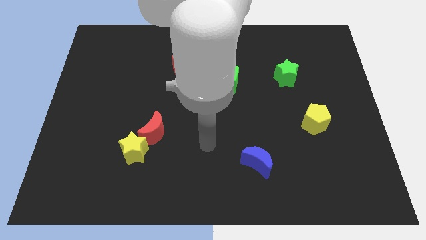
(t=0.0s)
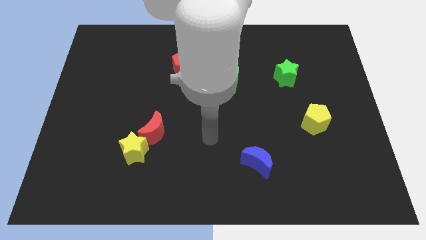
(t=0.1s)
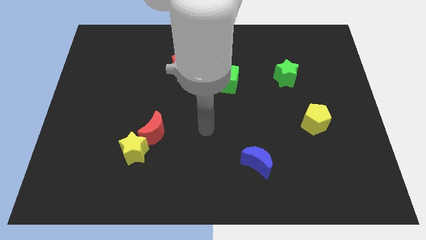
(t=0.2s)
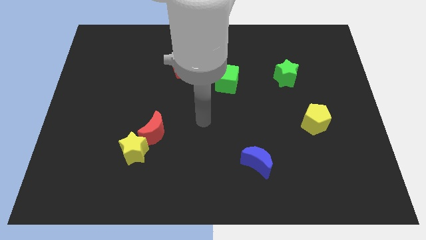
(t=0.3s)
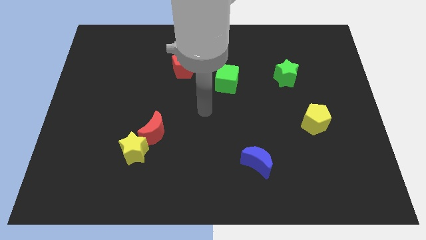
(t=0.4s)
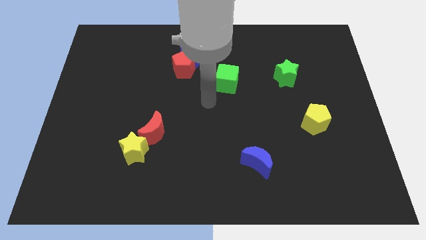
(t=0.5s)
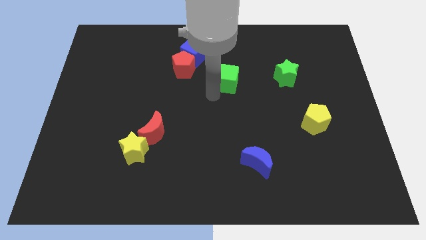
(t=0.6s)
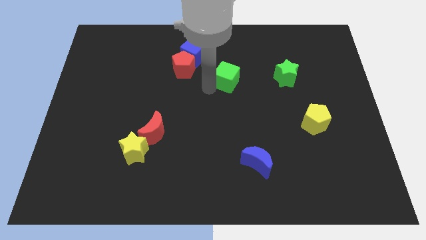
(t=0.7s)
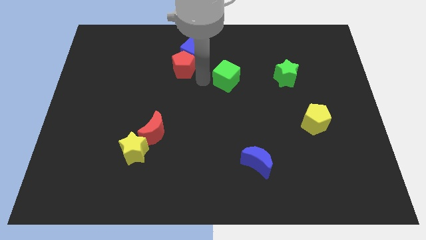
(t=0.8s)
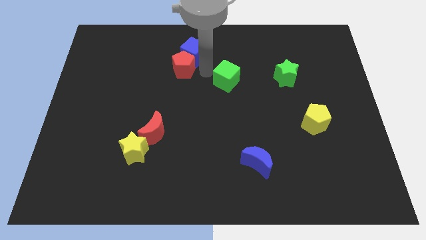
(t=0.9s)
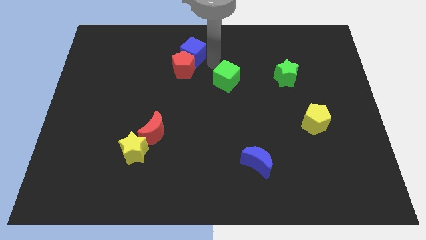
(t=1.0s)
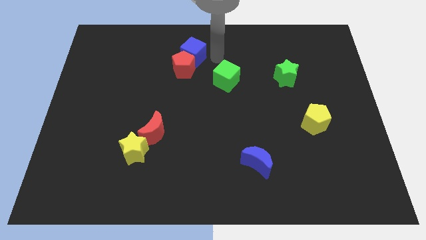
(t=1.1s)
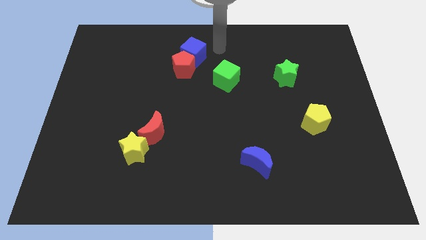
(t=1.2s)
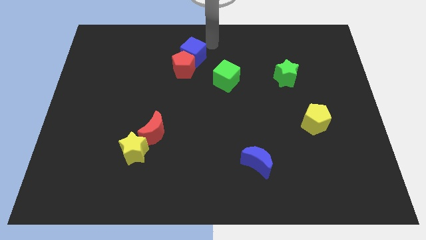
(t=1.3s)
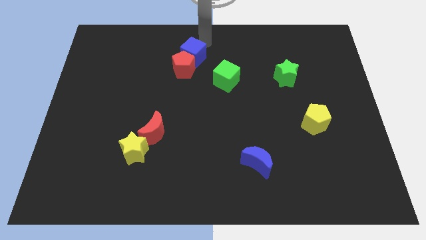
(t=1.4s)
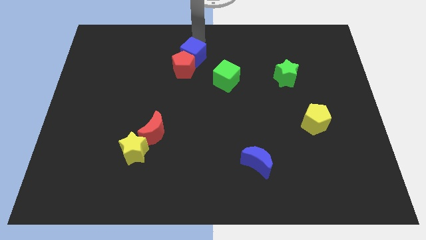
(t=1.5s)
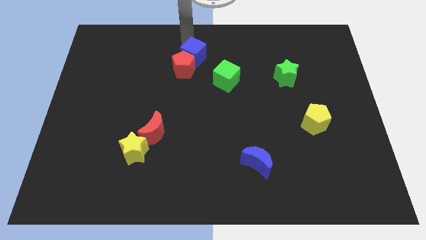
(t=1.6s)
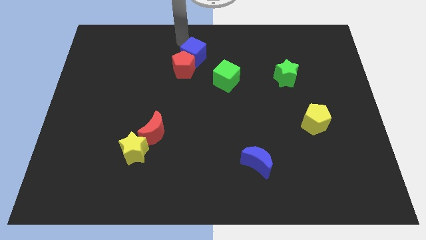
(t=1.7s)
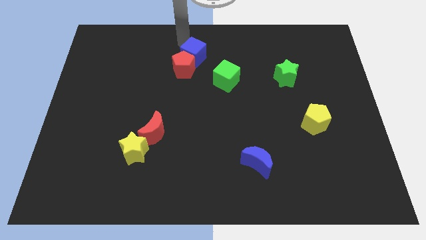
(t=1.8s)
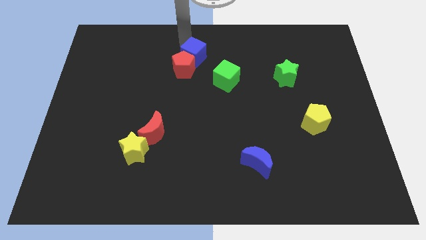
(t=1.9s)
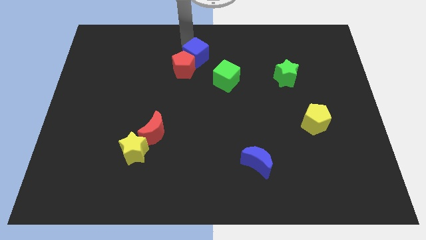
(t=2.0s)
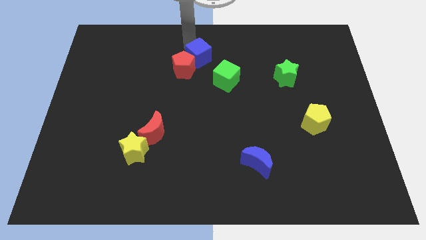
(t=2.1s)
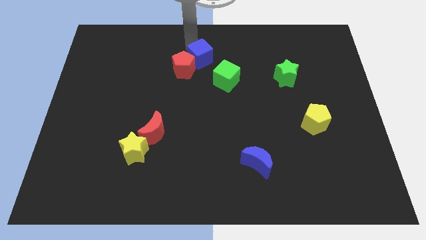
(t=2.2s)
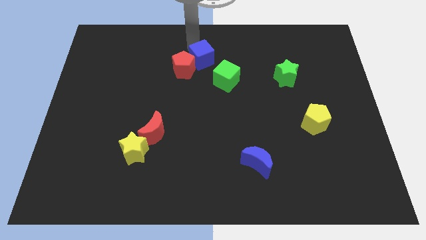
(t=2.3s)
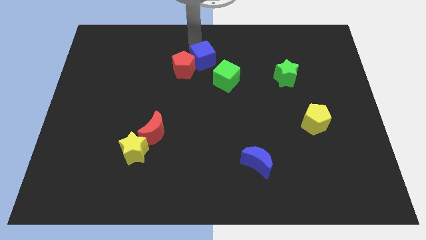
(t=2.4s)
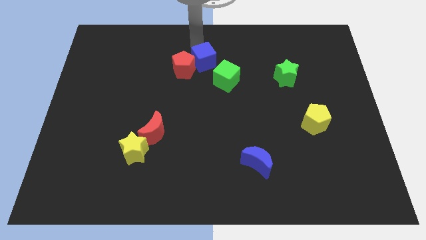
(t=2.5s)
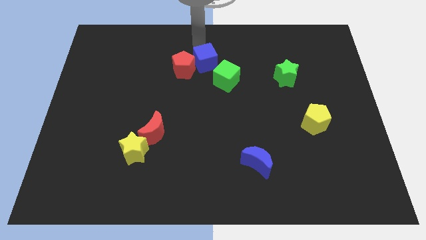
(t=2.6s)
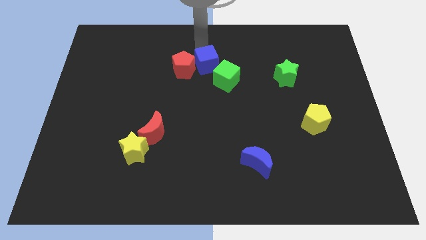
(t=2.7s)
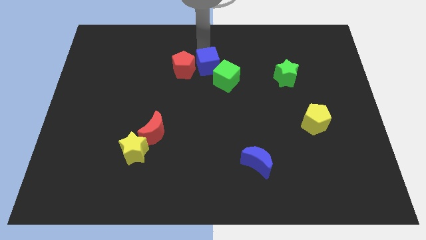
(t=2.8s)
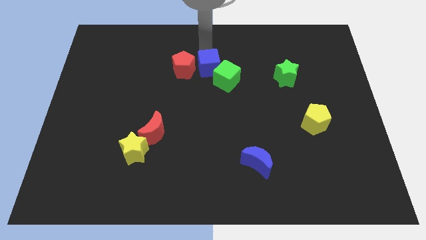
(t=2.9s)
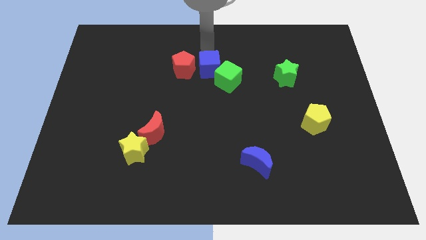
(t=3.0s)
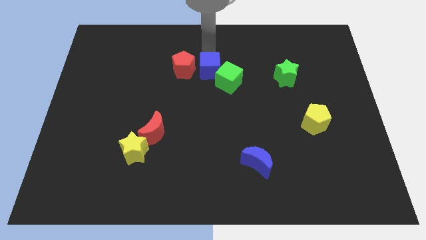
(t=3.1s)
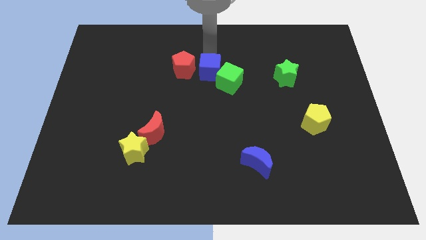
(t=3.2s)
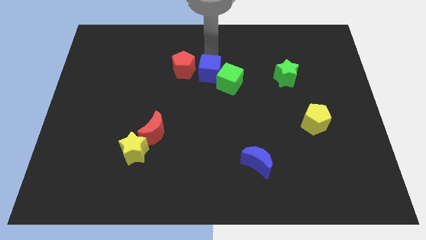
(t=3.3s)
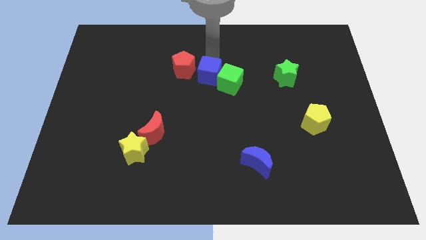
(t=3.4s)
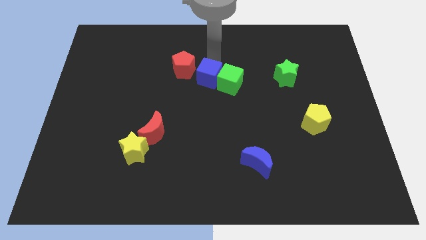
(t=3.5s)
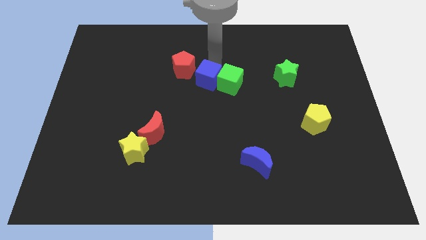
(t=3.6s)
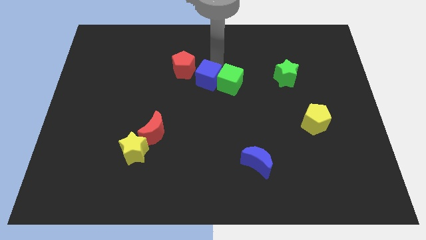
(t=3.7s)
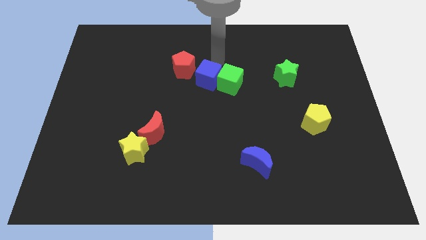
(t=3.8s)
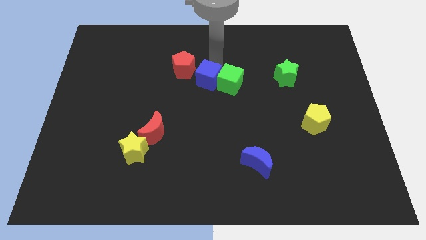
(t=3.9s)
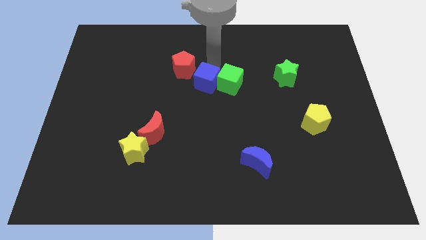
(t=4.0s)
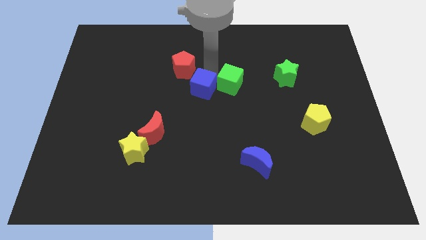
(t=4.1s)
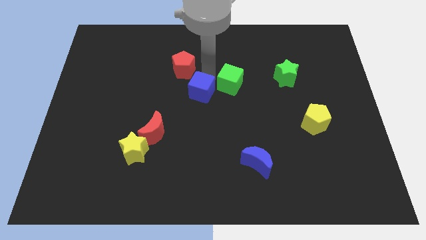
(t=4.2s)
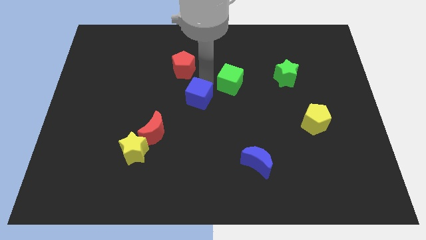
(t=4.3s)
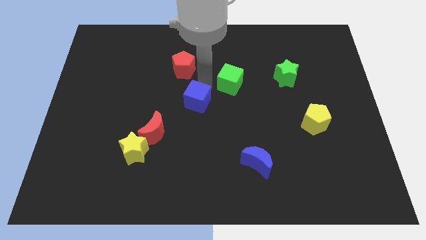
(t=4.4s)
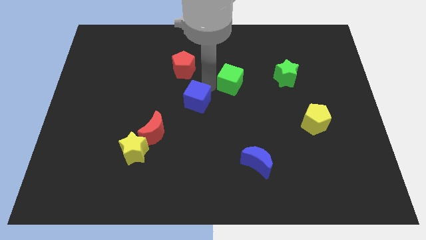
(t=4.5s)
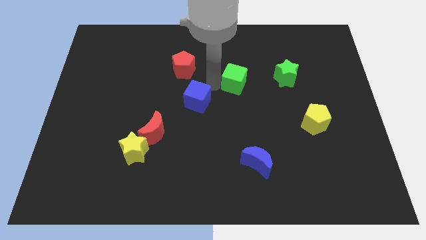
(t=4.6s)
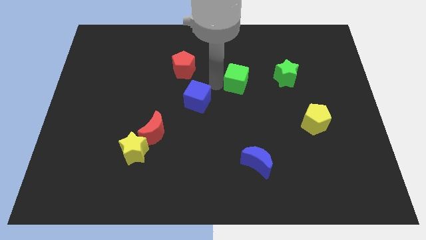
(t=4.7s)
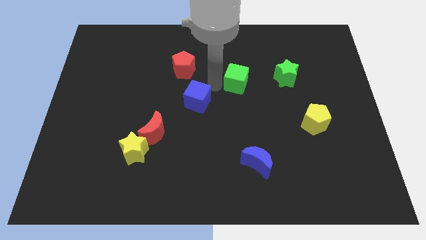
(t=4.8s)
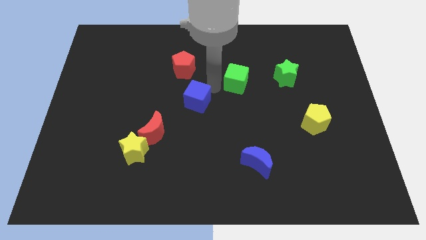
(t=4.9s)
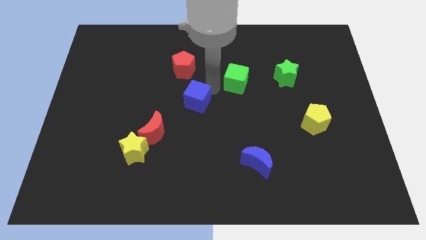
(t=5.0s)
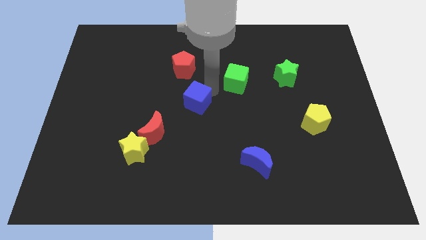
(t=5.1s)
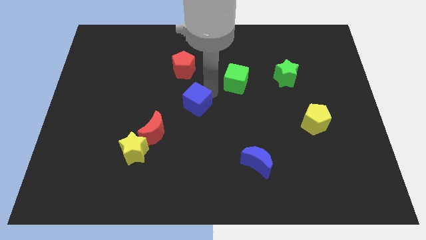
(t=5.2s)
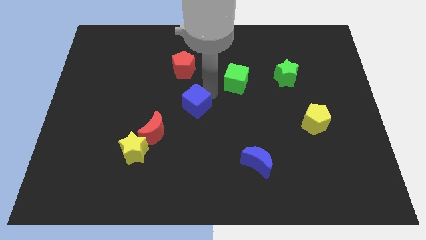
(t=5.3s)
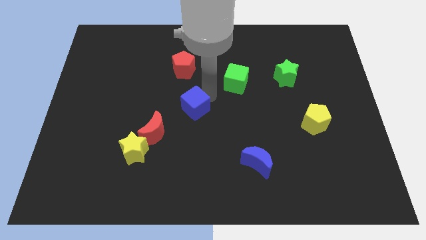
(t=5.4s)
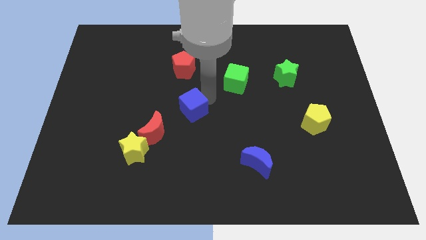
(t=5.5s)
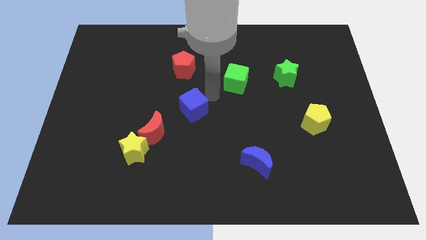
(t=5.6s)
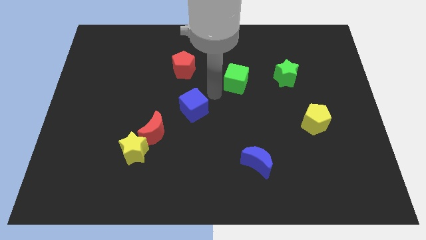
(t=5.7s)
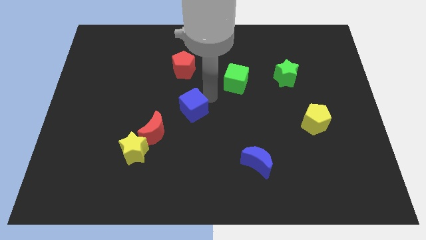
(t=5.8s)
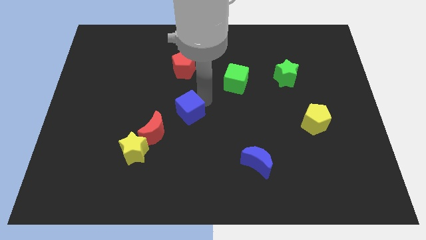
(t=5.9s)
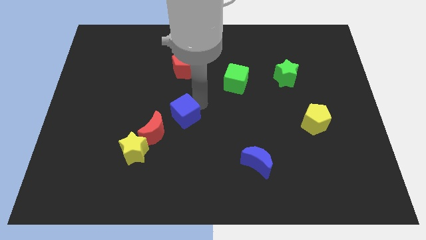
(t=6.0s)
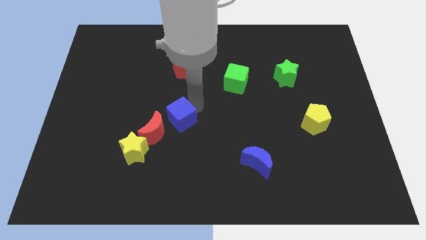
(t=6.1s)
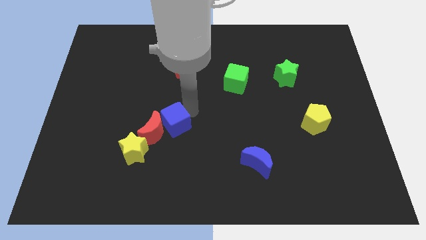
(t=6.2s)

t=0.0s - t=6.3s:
put the blue cube next to the red moon

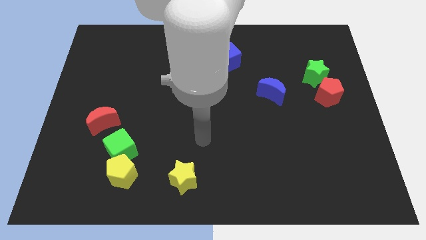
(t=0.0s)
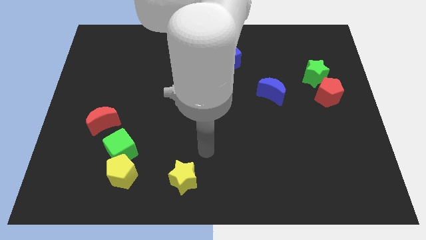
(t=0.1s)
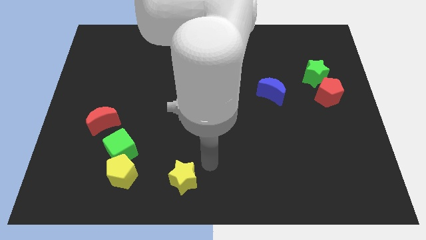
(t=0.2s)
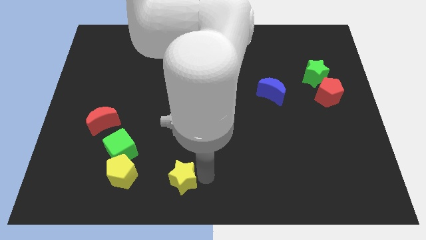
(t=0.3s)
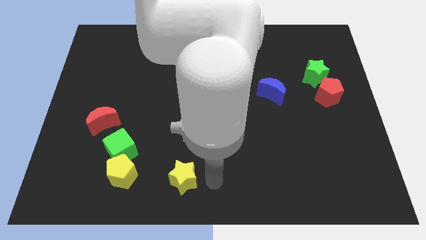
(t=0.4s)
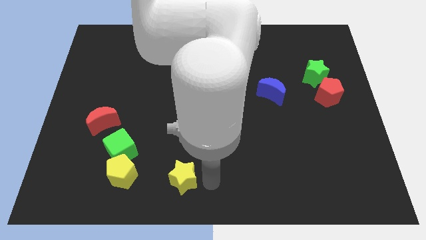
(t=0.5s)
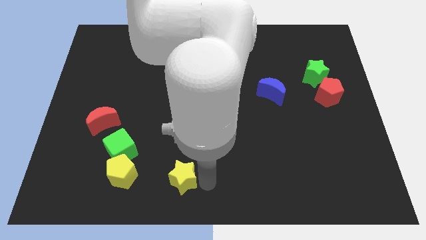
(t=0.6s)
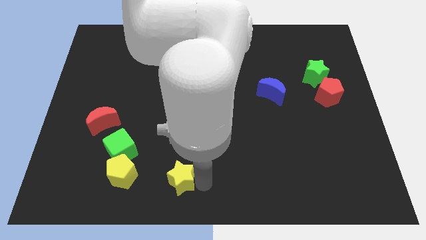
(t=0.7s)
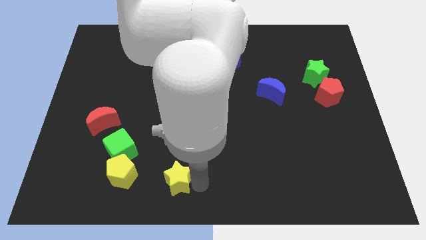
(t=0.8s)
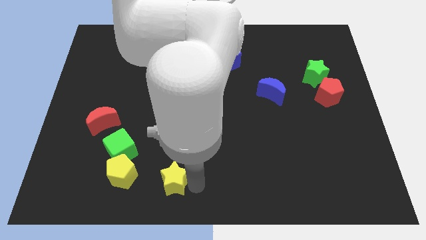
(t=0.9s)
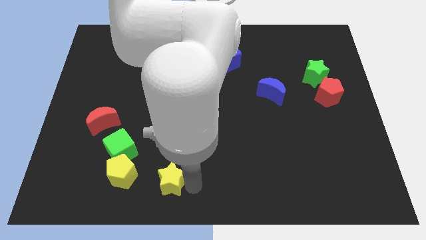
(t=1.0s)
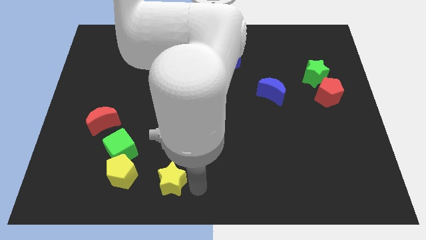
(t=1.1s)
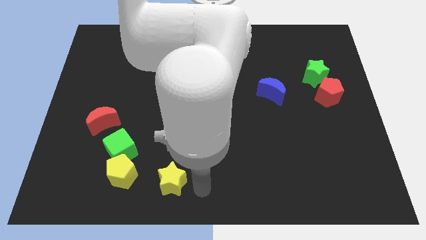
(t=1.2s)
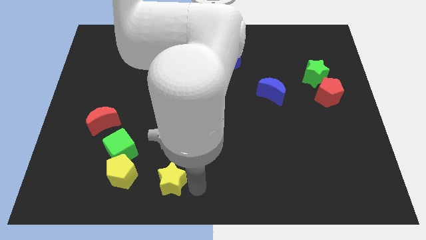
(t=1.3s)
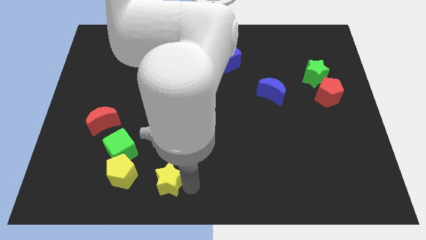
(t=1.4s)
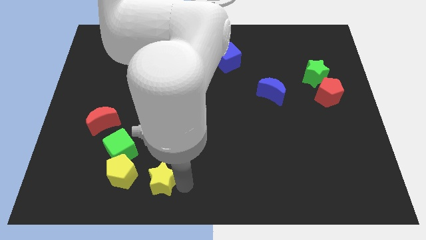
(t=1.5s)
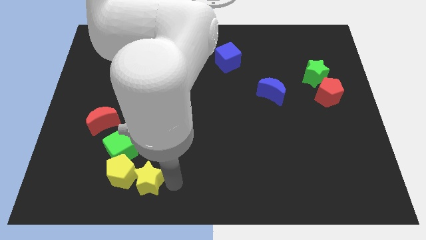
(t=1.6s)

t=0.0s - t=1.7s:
push the yellow star towards the yellow pentagon
